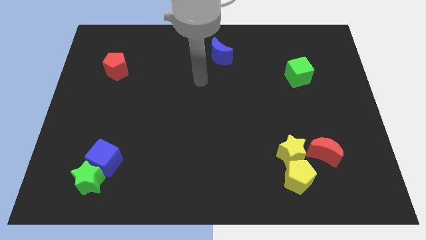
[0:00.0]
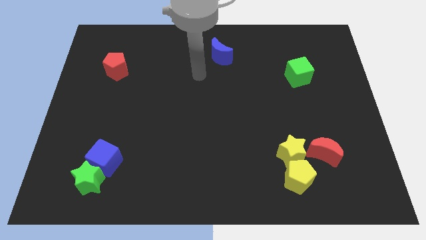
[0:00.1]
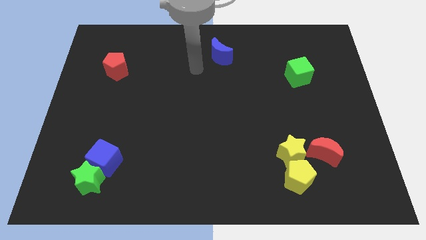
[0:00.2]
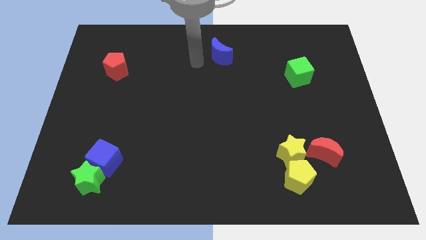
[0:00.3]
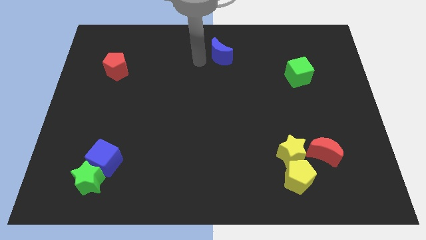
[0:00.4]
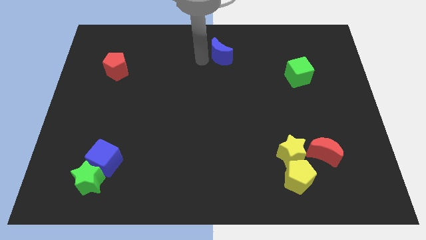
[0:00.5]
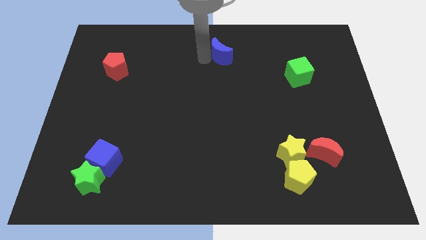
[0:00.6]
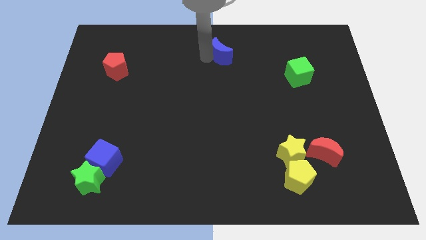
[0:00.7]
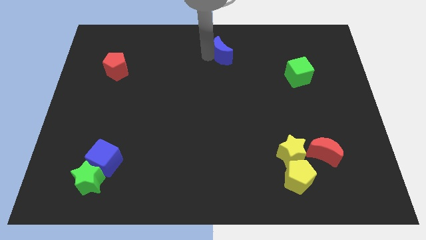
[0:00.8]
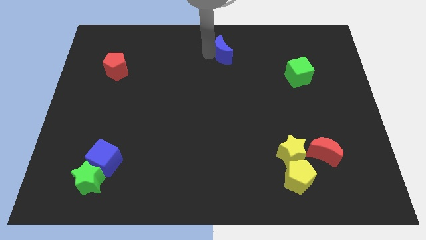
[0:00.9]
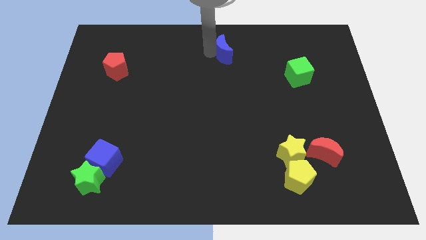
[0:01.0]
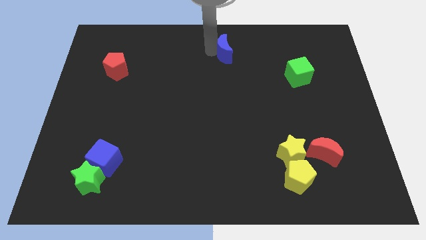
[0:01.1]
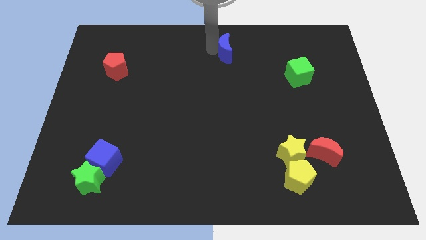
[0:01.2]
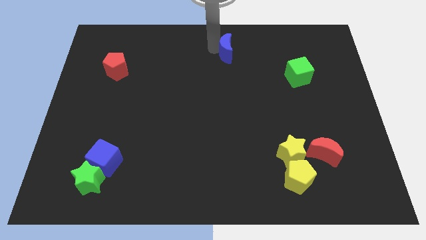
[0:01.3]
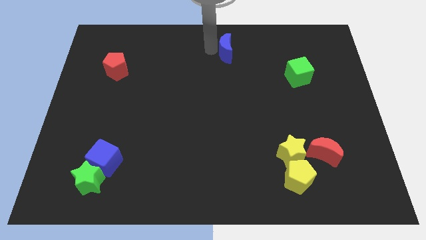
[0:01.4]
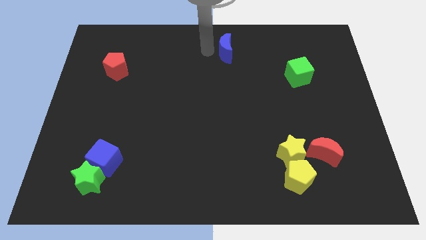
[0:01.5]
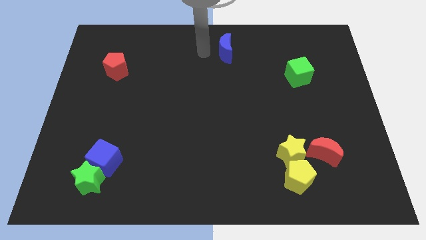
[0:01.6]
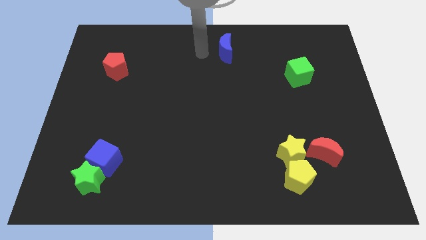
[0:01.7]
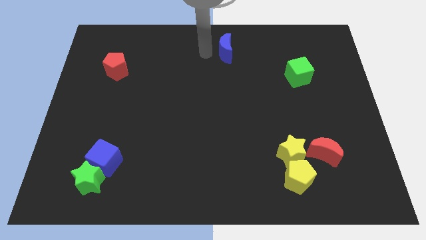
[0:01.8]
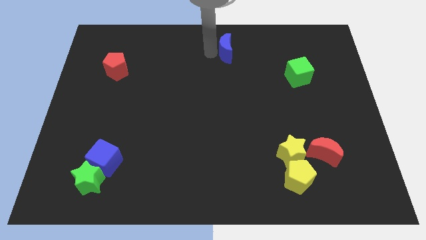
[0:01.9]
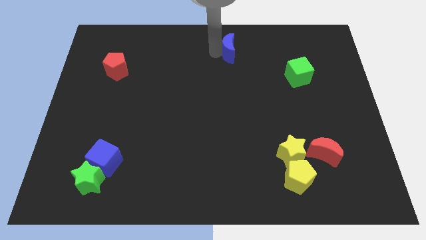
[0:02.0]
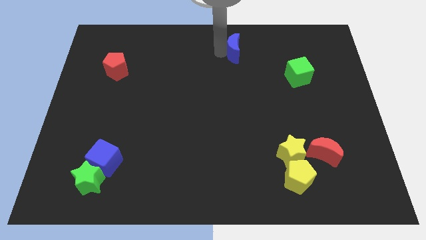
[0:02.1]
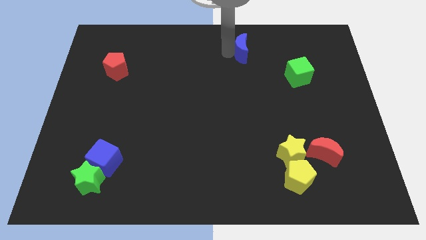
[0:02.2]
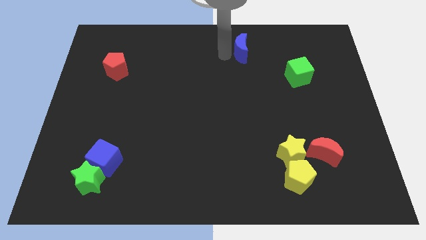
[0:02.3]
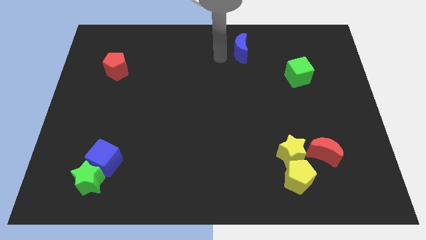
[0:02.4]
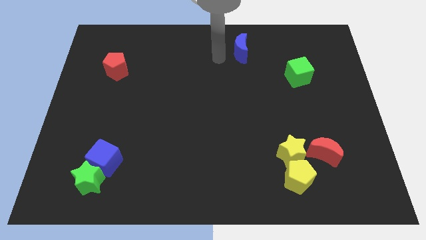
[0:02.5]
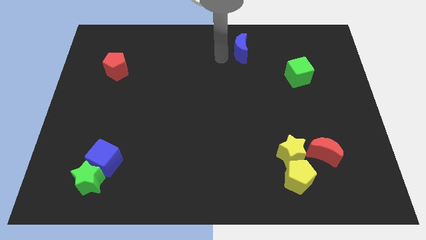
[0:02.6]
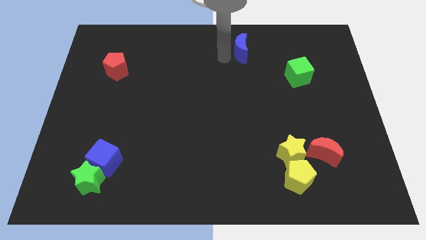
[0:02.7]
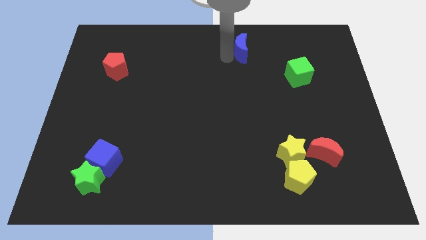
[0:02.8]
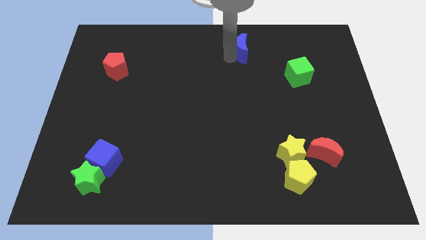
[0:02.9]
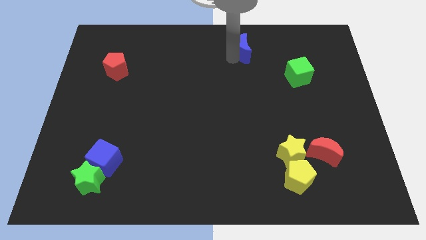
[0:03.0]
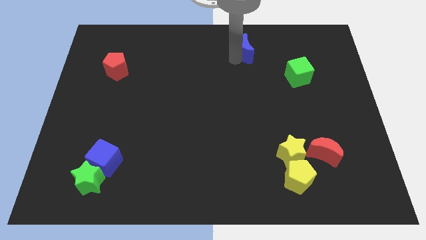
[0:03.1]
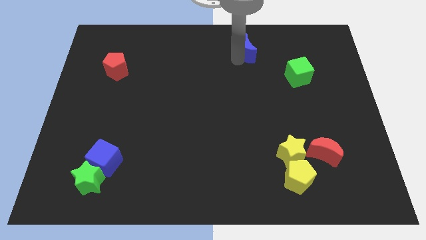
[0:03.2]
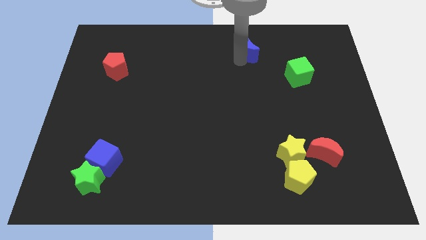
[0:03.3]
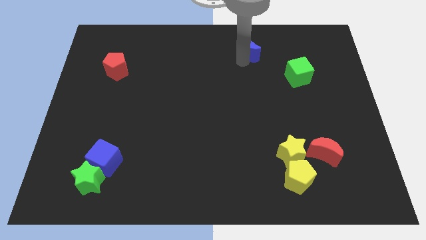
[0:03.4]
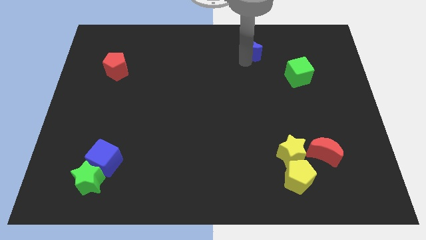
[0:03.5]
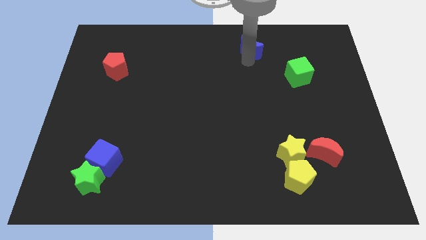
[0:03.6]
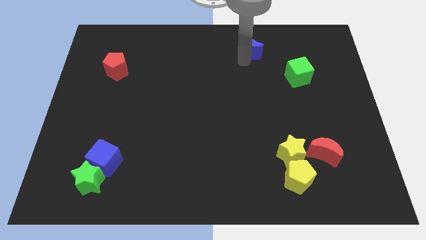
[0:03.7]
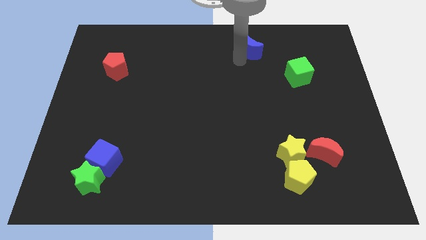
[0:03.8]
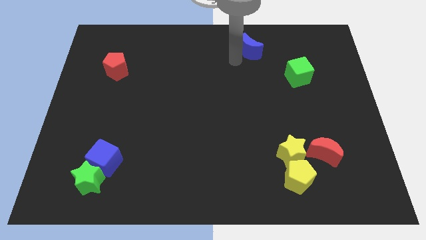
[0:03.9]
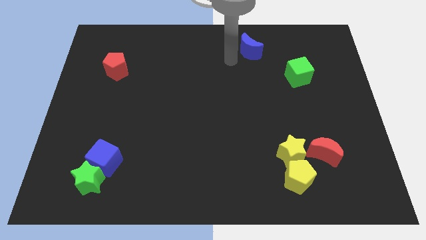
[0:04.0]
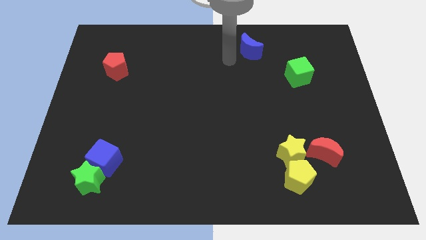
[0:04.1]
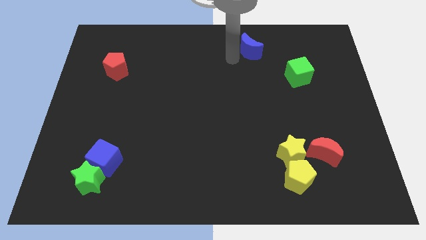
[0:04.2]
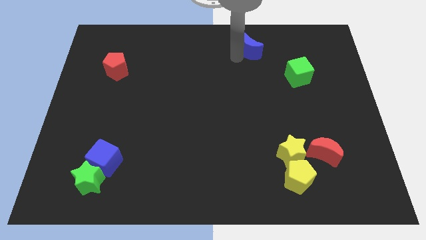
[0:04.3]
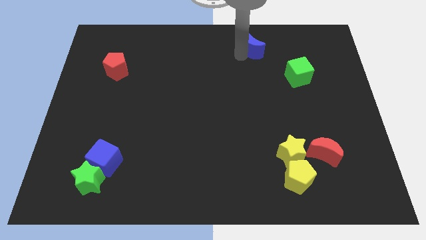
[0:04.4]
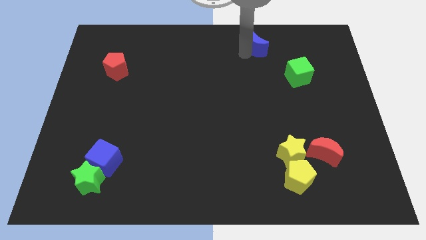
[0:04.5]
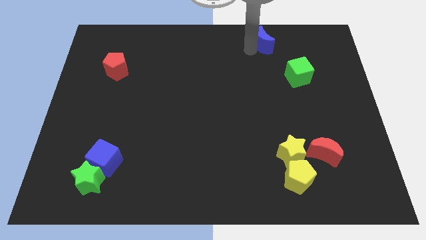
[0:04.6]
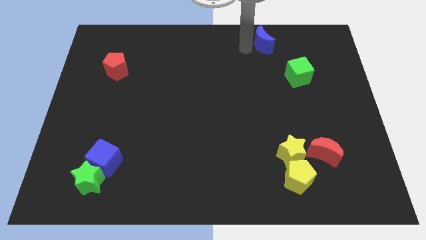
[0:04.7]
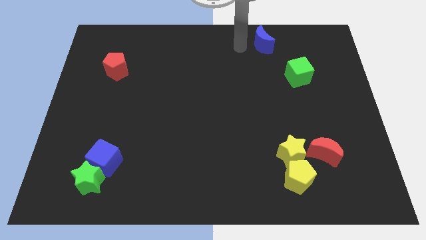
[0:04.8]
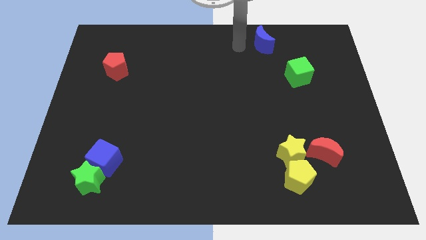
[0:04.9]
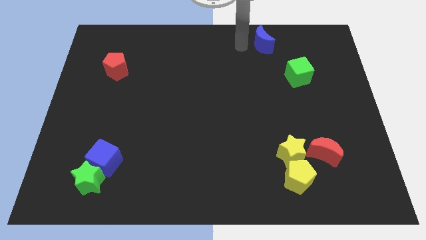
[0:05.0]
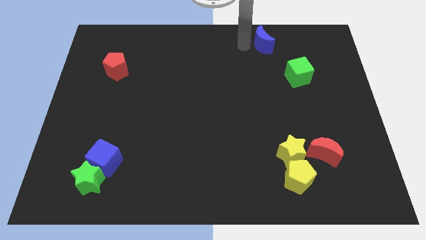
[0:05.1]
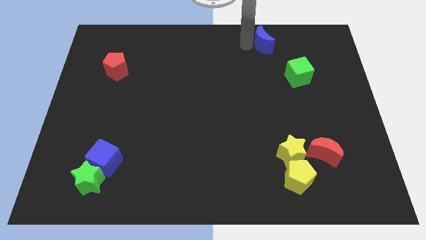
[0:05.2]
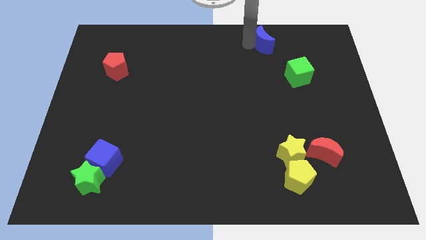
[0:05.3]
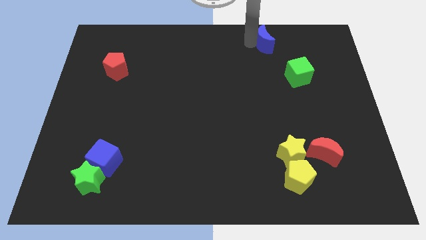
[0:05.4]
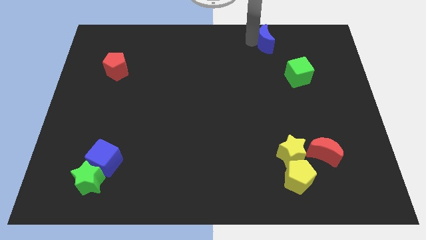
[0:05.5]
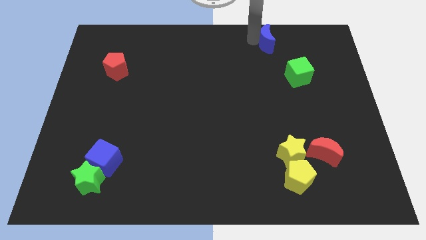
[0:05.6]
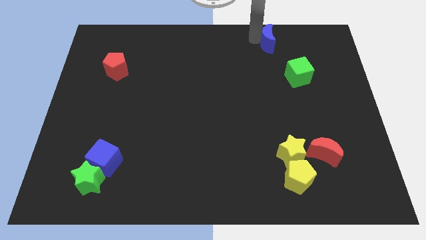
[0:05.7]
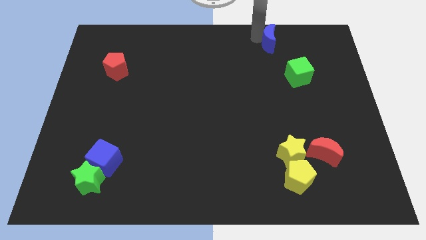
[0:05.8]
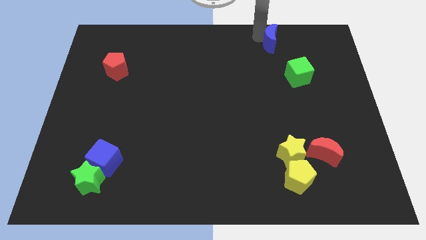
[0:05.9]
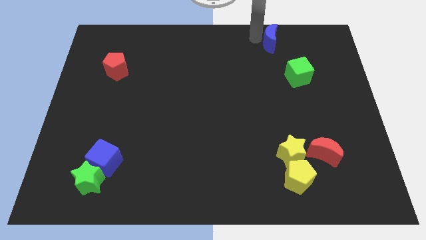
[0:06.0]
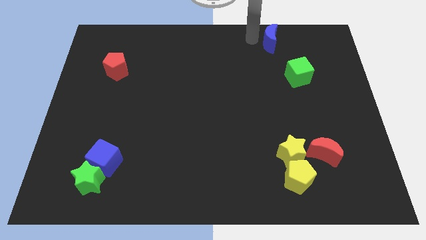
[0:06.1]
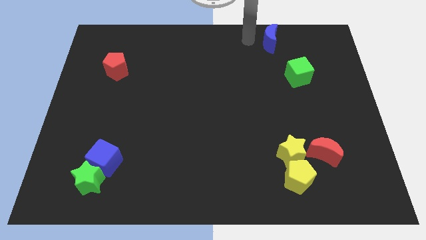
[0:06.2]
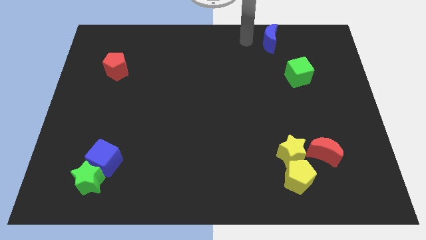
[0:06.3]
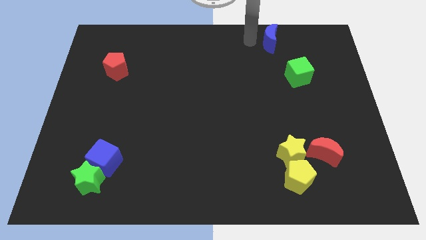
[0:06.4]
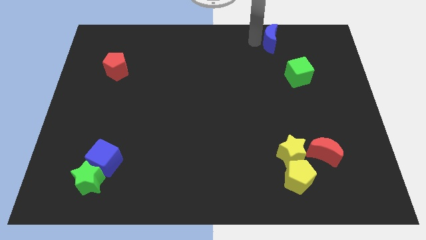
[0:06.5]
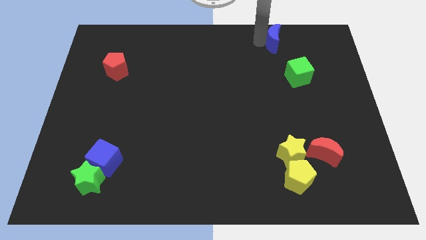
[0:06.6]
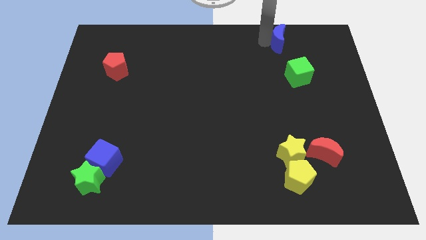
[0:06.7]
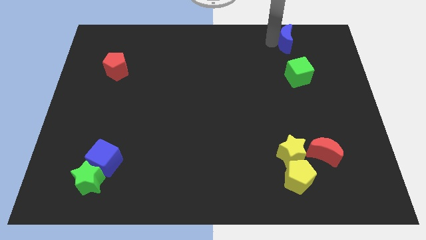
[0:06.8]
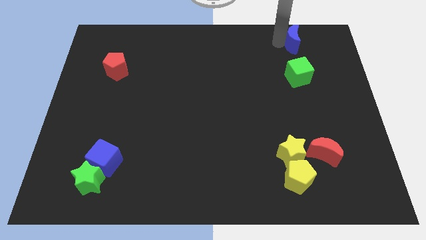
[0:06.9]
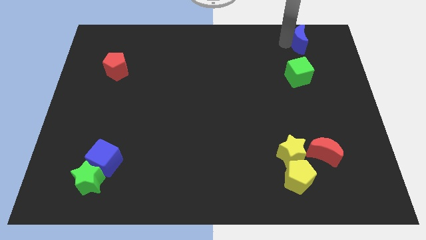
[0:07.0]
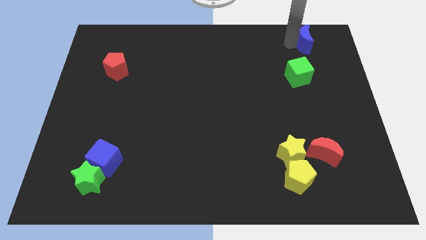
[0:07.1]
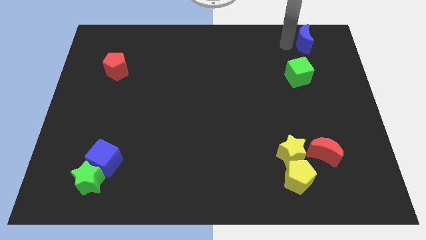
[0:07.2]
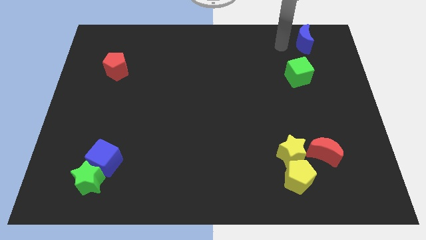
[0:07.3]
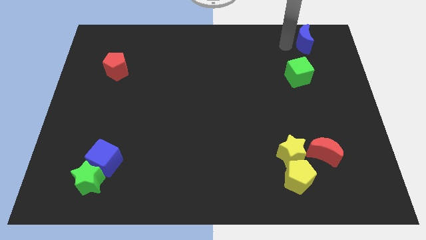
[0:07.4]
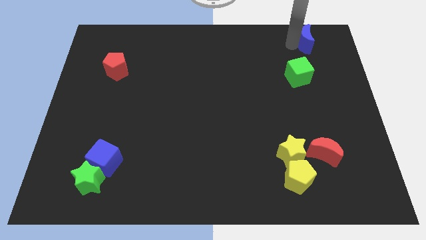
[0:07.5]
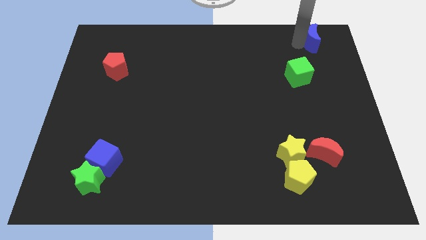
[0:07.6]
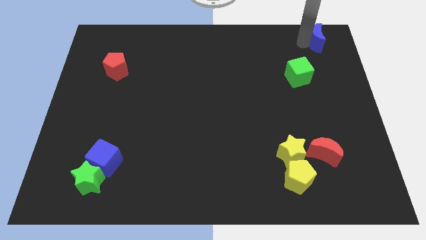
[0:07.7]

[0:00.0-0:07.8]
slide the blue moon to the top right
